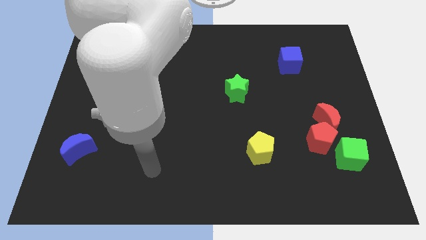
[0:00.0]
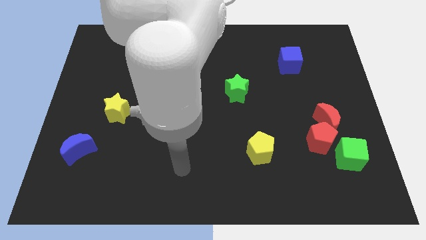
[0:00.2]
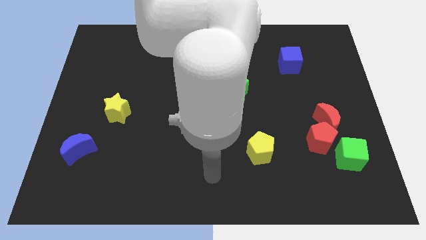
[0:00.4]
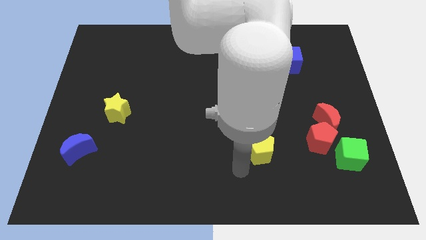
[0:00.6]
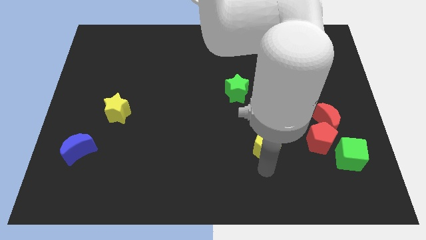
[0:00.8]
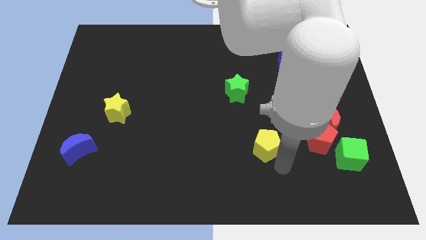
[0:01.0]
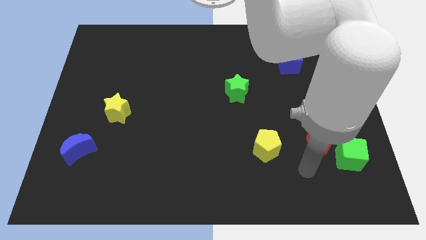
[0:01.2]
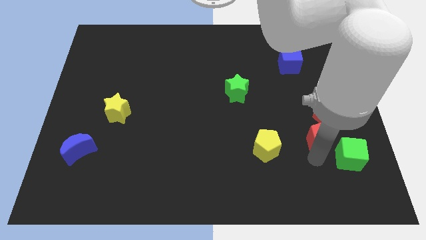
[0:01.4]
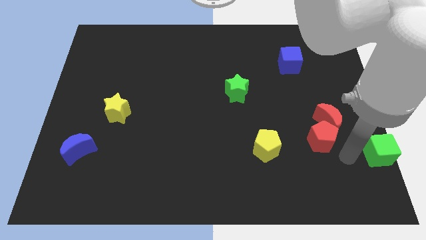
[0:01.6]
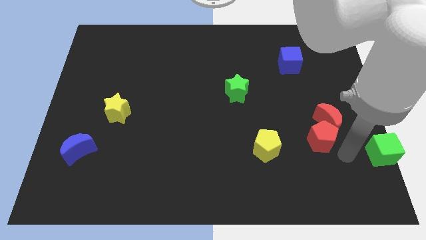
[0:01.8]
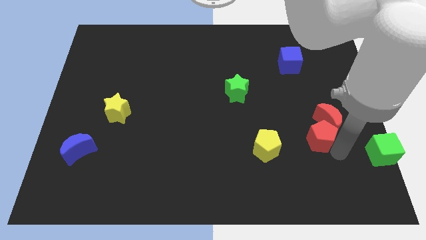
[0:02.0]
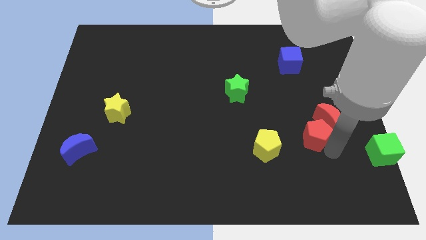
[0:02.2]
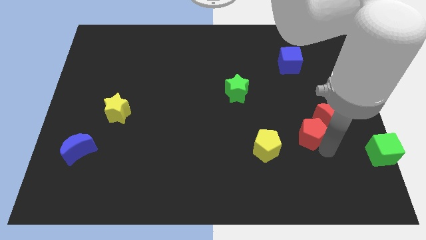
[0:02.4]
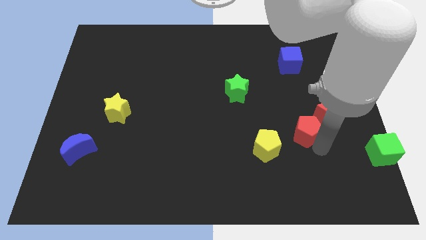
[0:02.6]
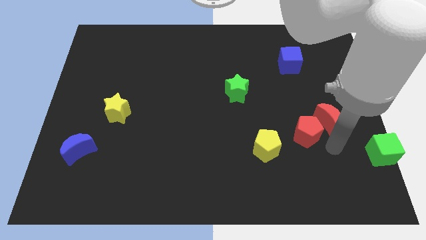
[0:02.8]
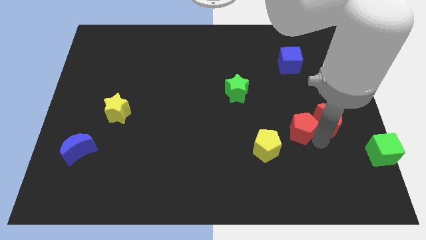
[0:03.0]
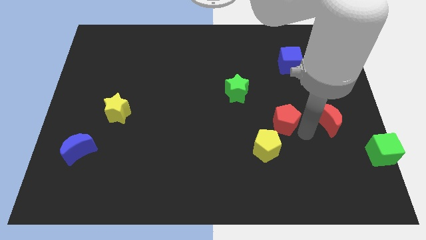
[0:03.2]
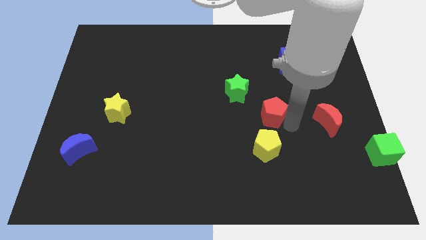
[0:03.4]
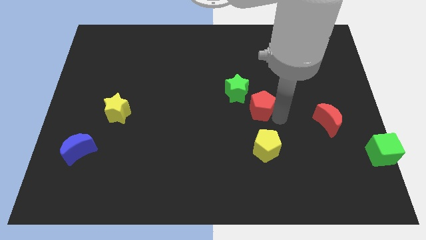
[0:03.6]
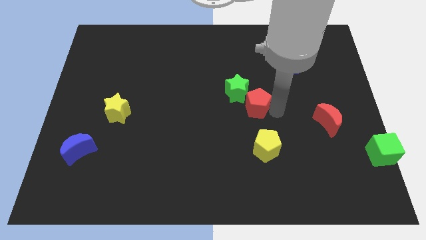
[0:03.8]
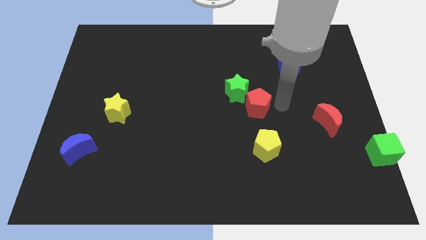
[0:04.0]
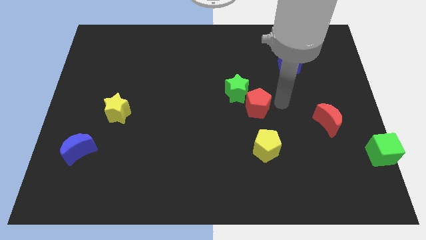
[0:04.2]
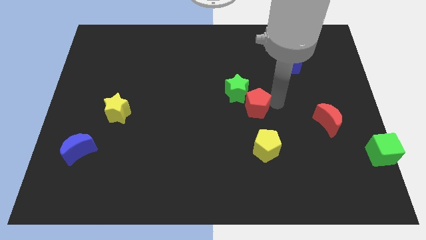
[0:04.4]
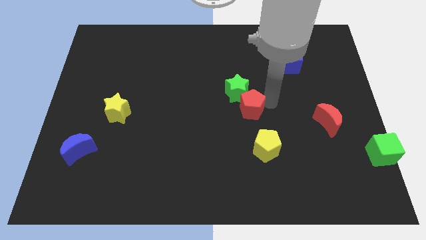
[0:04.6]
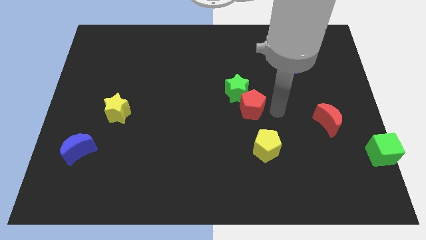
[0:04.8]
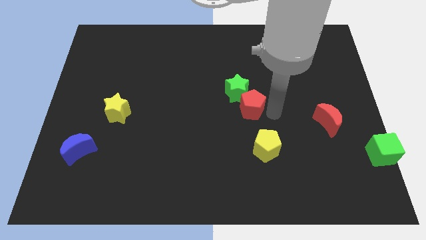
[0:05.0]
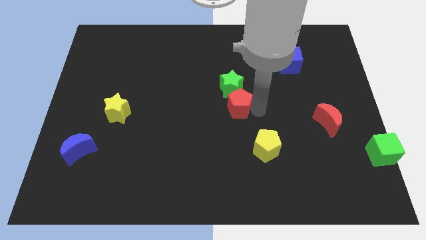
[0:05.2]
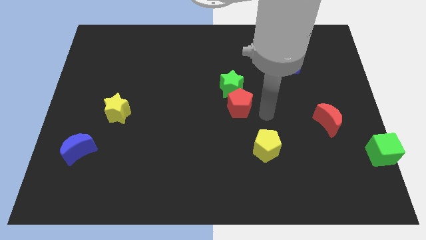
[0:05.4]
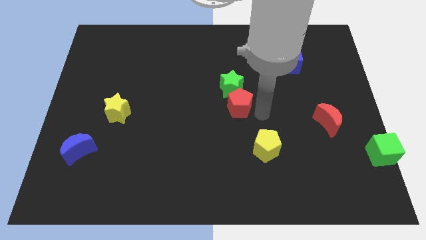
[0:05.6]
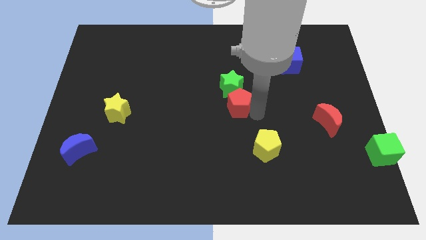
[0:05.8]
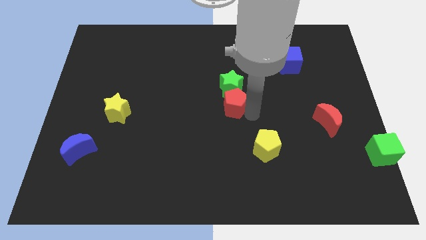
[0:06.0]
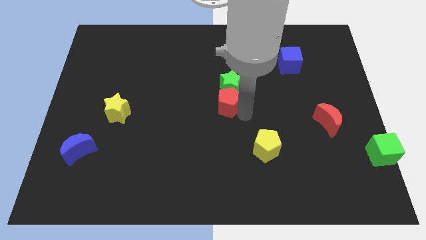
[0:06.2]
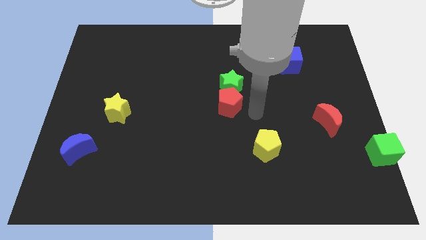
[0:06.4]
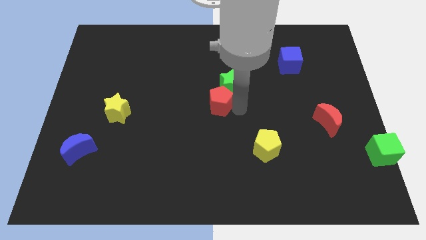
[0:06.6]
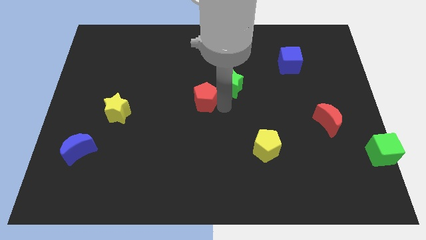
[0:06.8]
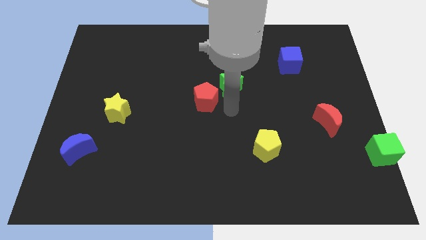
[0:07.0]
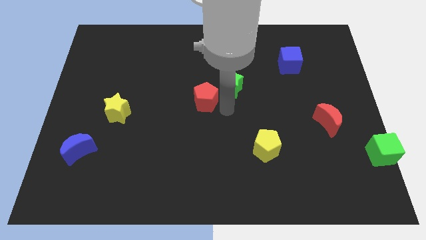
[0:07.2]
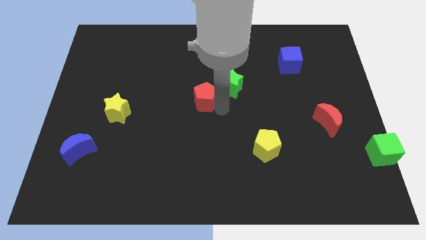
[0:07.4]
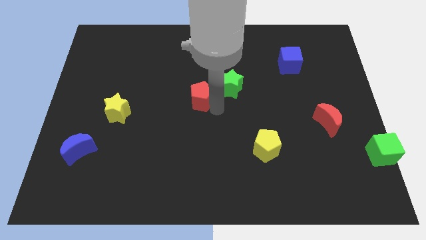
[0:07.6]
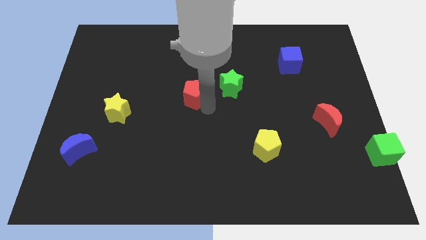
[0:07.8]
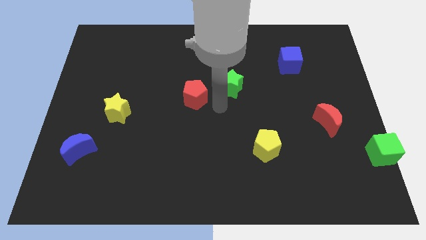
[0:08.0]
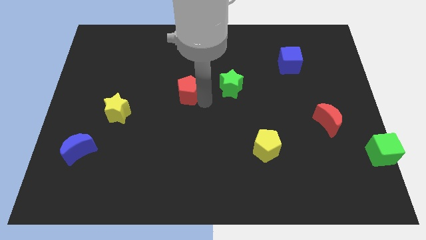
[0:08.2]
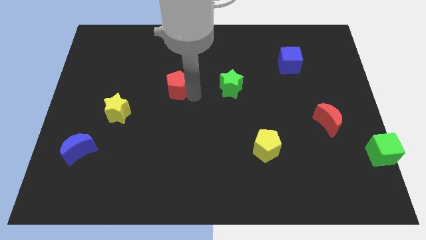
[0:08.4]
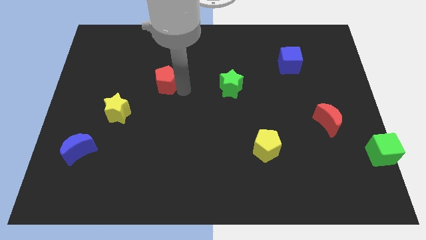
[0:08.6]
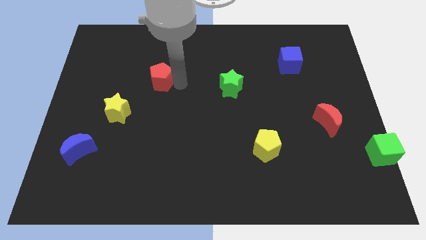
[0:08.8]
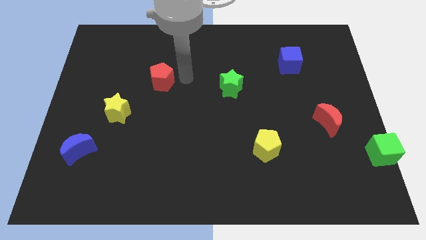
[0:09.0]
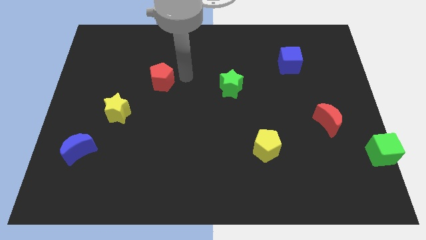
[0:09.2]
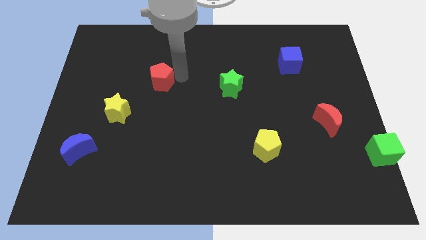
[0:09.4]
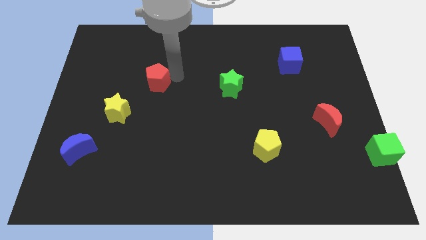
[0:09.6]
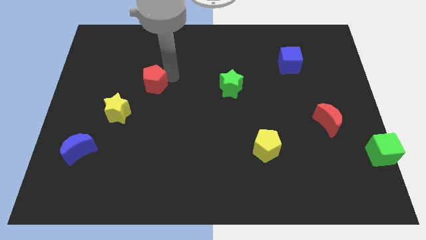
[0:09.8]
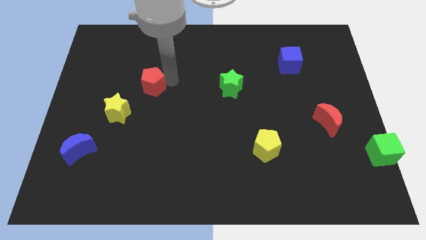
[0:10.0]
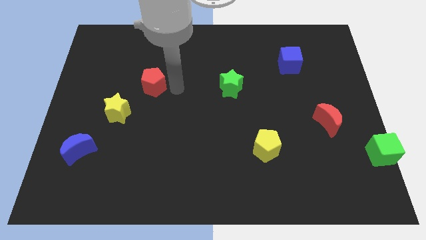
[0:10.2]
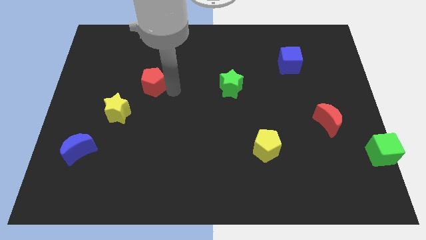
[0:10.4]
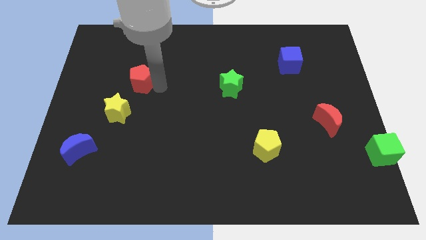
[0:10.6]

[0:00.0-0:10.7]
slide the red pentagon to the top of the yellow star

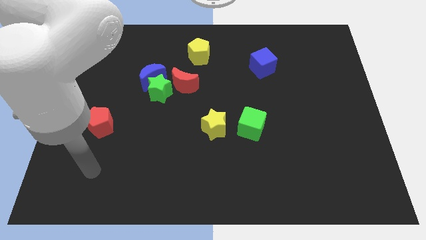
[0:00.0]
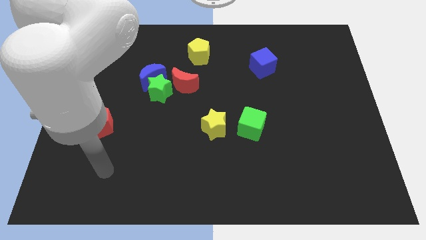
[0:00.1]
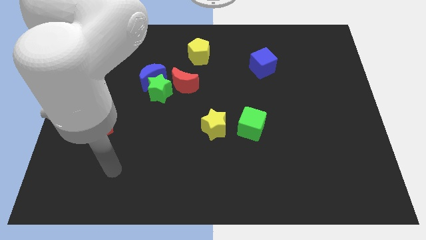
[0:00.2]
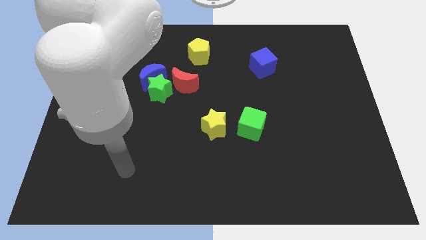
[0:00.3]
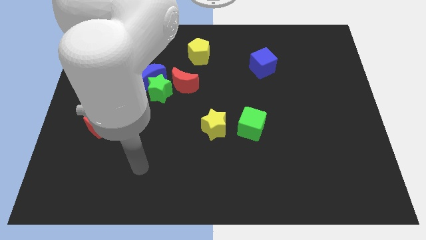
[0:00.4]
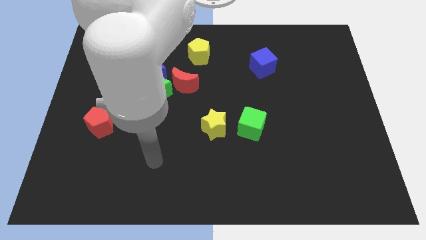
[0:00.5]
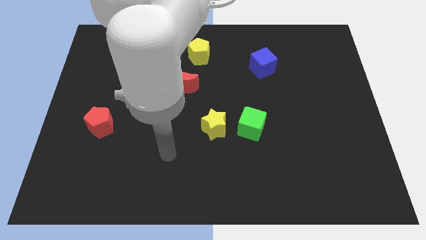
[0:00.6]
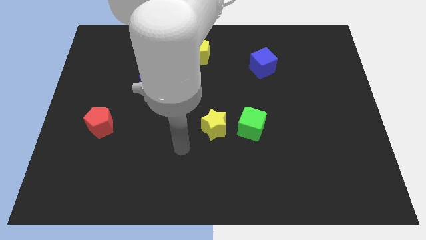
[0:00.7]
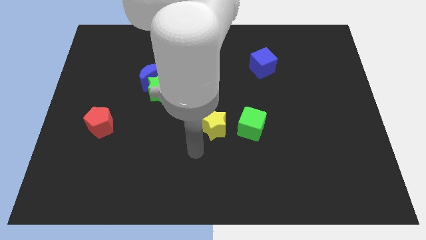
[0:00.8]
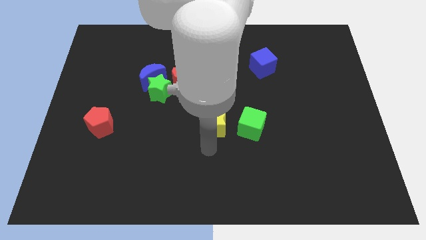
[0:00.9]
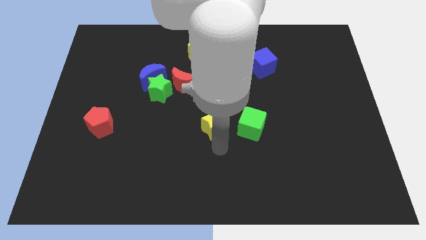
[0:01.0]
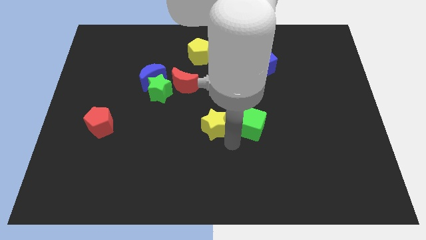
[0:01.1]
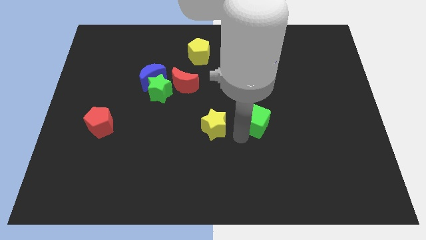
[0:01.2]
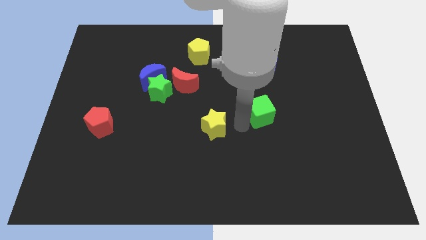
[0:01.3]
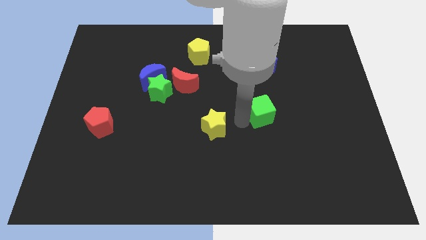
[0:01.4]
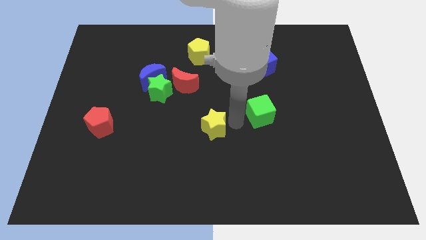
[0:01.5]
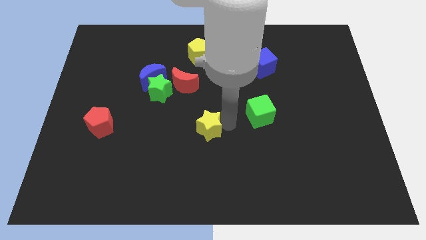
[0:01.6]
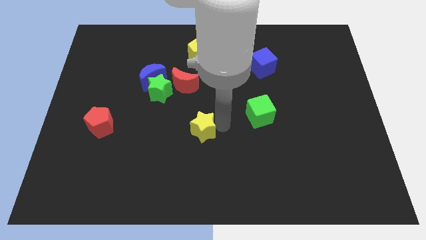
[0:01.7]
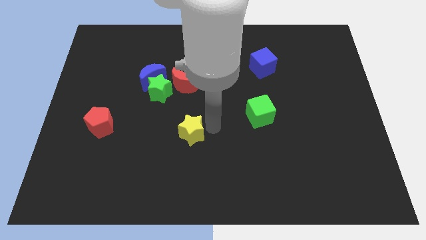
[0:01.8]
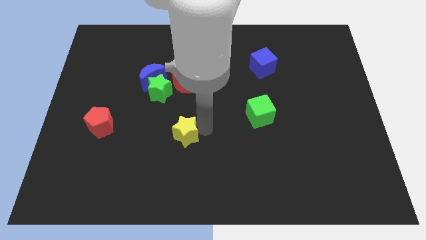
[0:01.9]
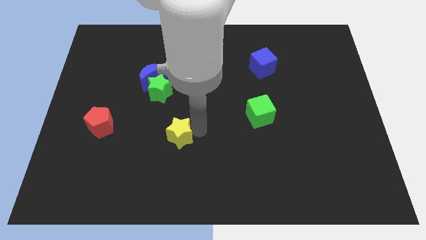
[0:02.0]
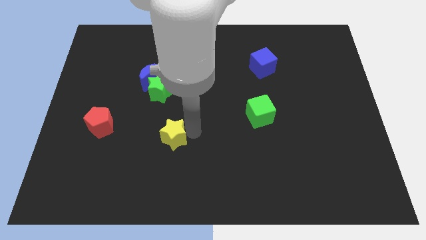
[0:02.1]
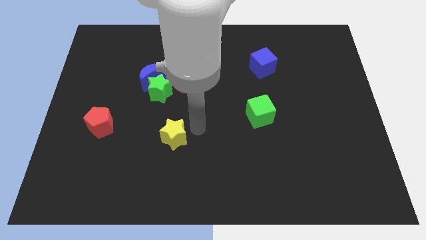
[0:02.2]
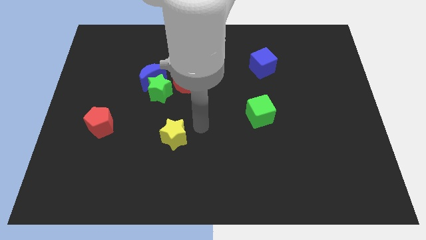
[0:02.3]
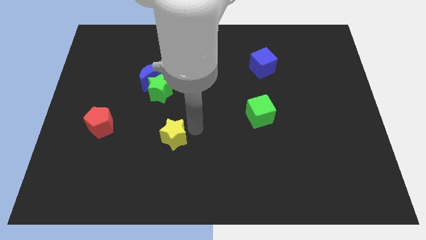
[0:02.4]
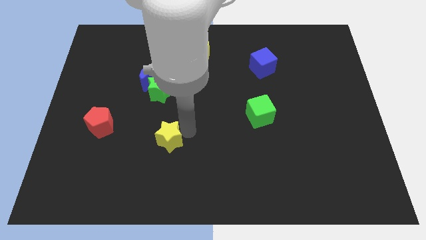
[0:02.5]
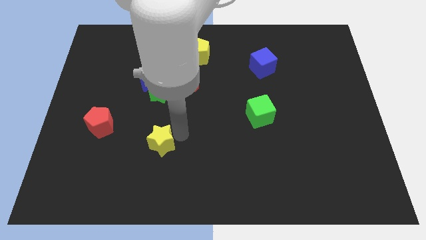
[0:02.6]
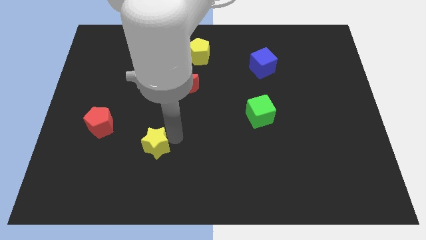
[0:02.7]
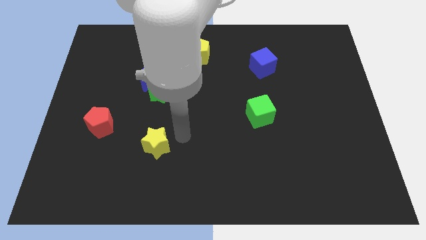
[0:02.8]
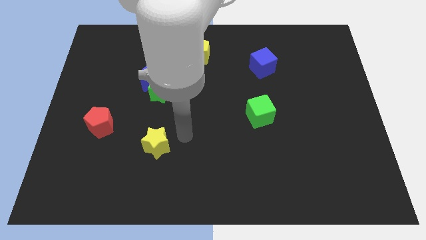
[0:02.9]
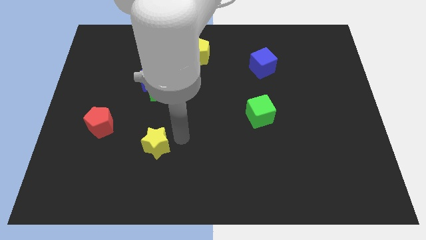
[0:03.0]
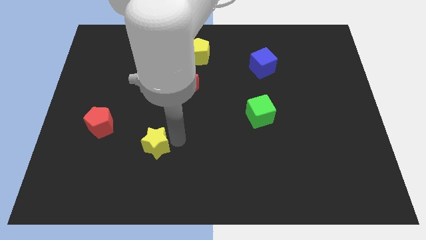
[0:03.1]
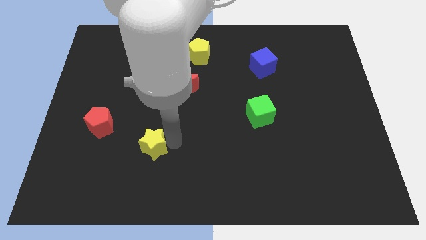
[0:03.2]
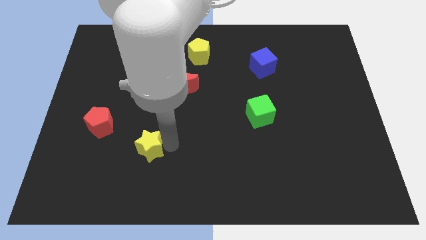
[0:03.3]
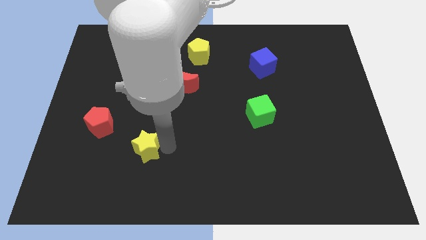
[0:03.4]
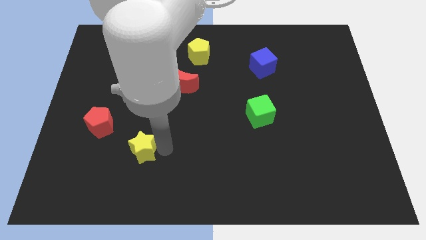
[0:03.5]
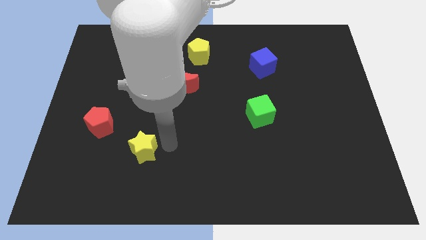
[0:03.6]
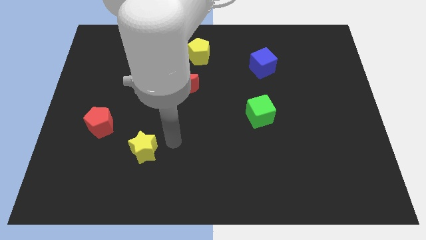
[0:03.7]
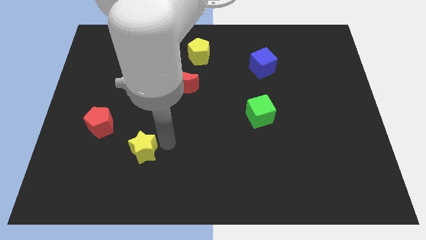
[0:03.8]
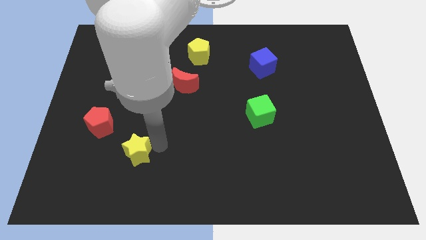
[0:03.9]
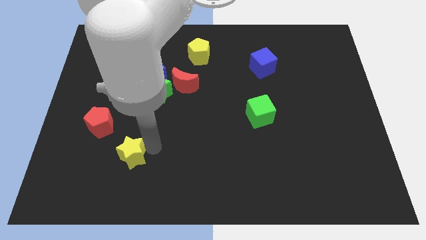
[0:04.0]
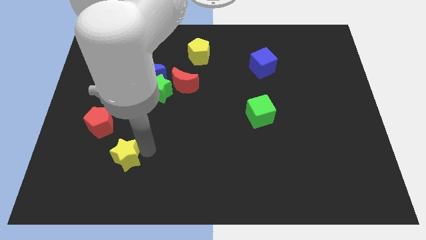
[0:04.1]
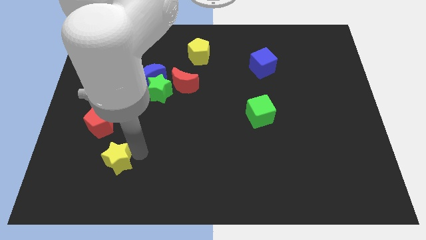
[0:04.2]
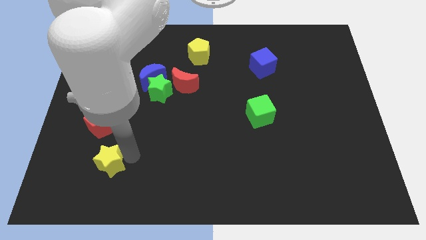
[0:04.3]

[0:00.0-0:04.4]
move the yellow star to the bottom side of the red pentagon
